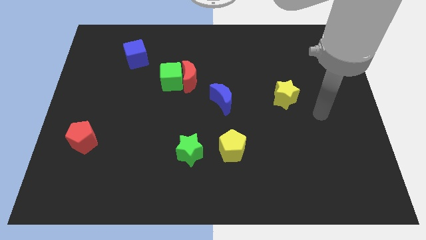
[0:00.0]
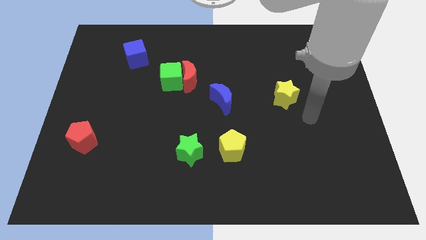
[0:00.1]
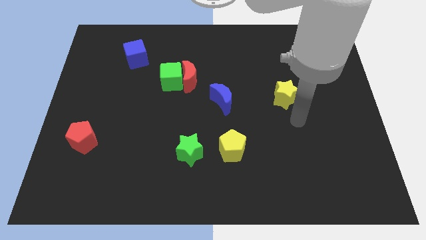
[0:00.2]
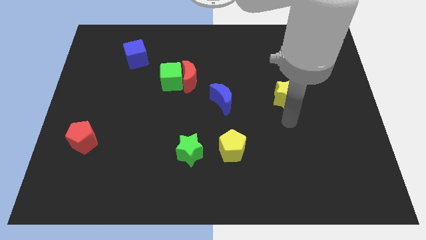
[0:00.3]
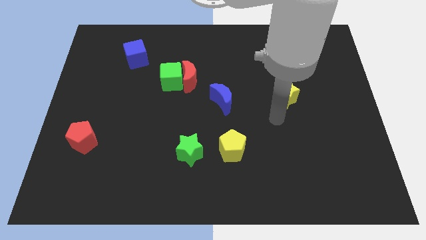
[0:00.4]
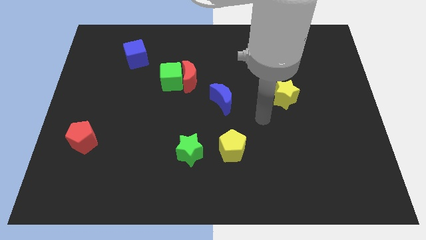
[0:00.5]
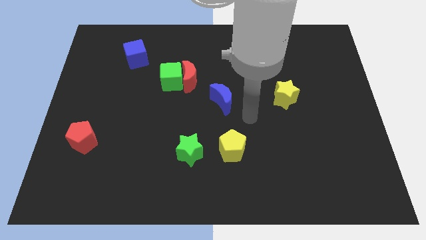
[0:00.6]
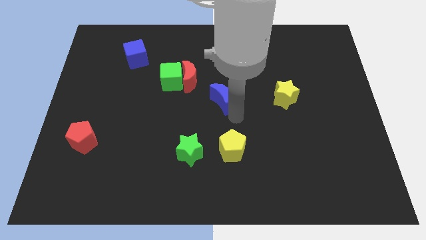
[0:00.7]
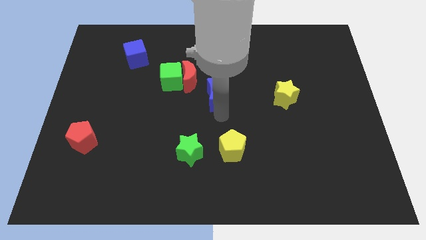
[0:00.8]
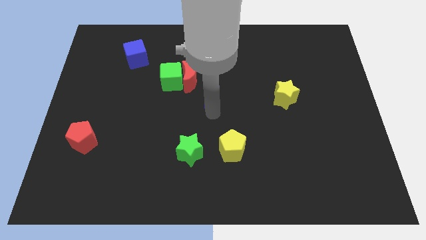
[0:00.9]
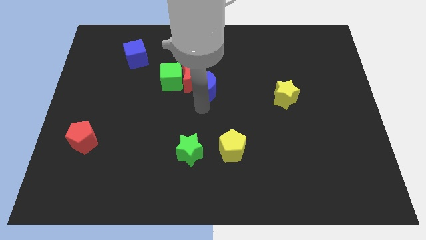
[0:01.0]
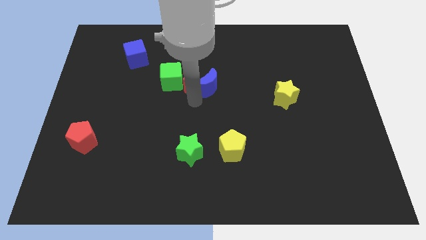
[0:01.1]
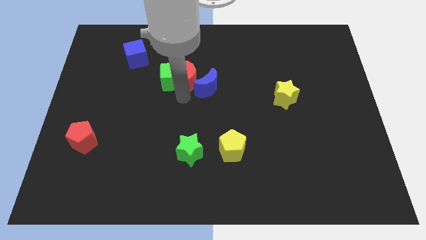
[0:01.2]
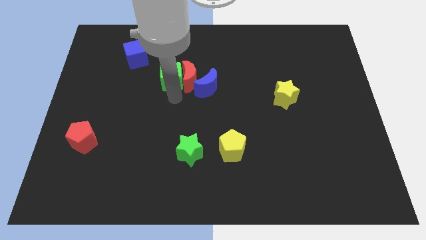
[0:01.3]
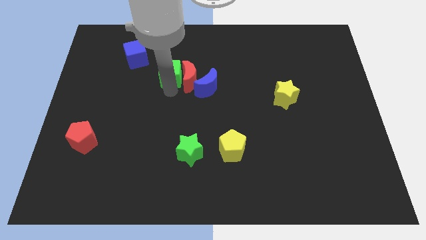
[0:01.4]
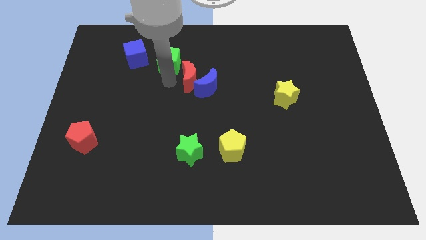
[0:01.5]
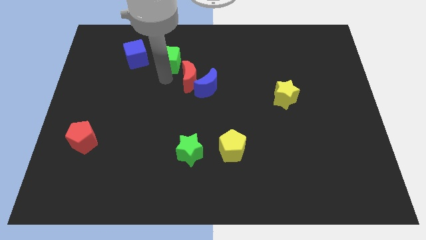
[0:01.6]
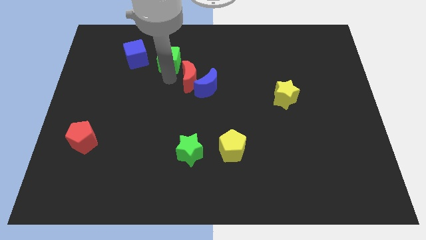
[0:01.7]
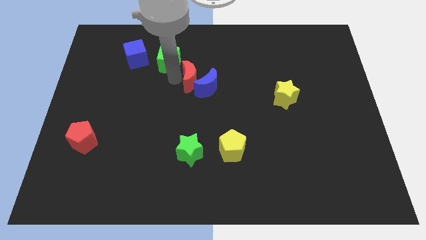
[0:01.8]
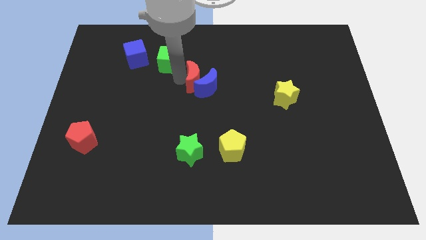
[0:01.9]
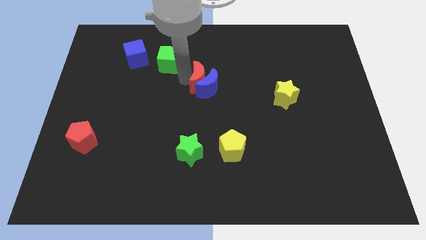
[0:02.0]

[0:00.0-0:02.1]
move the red moon away from the green cube

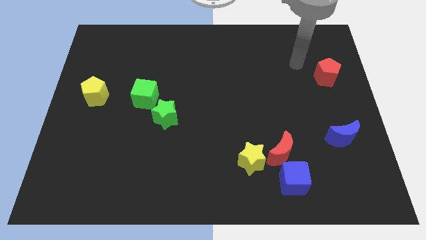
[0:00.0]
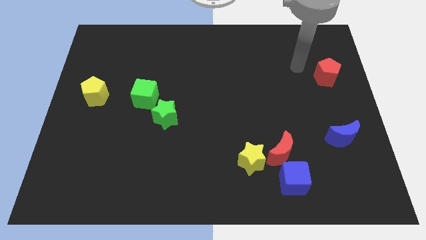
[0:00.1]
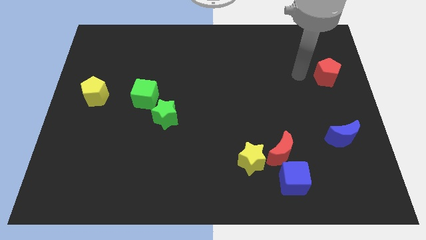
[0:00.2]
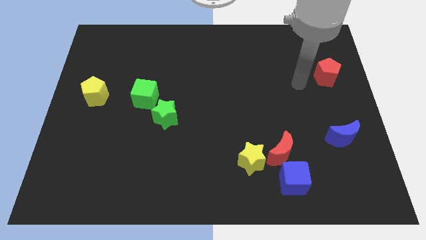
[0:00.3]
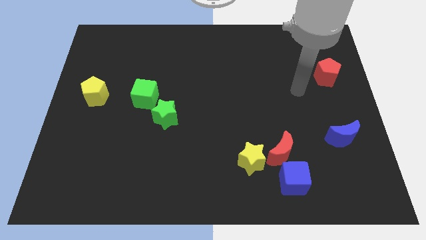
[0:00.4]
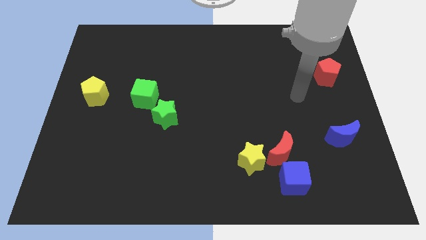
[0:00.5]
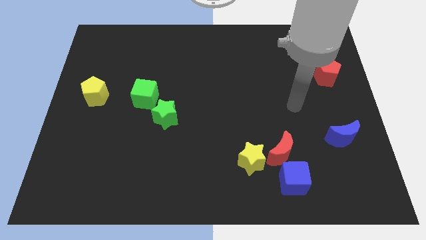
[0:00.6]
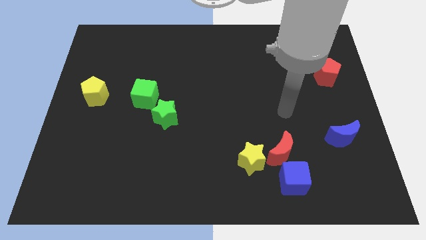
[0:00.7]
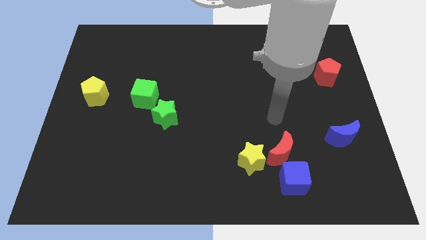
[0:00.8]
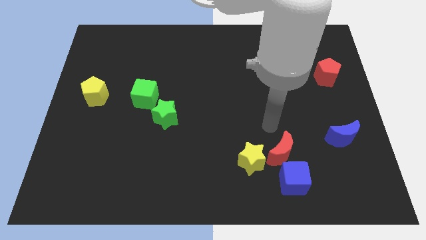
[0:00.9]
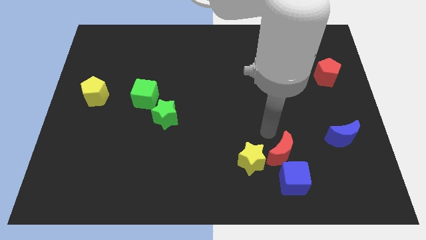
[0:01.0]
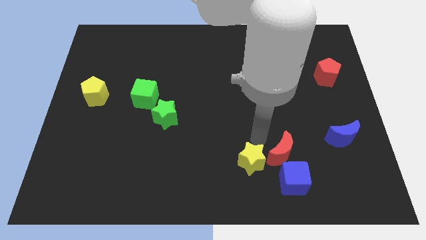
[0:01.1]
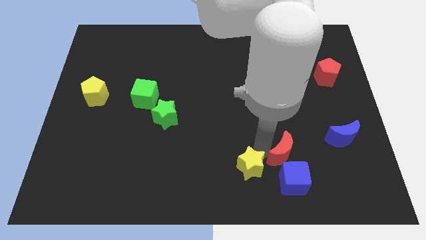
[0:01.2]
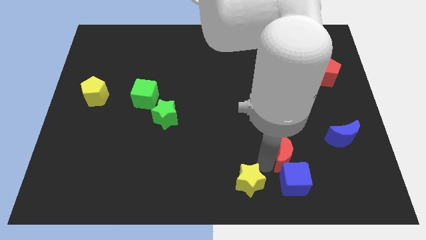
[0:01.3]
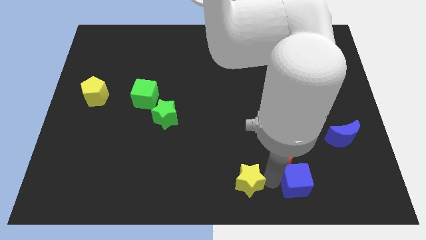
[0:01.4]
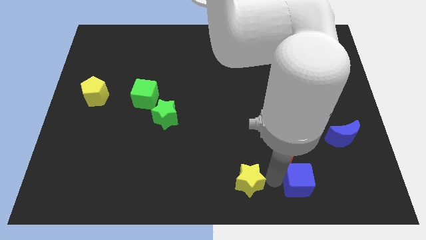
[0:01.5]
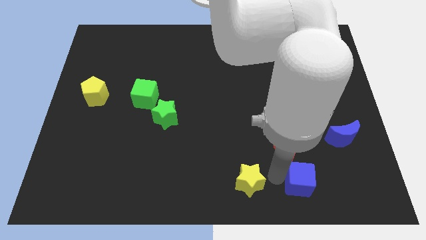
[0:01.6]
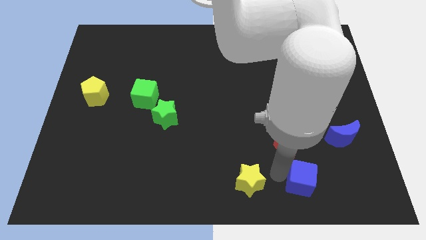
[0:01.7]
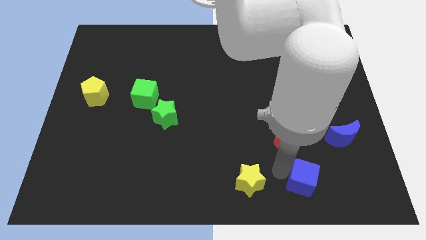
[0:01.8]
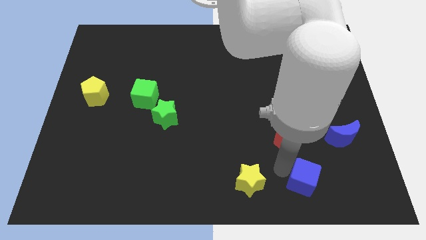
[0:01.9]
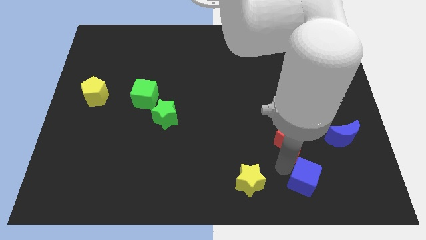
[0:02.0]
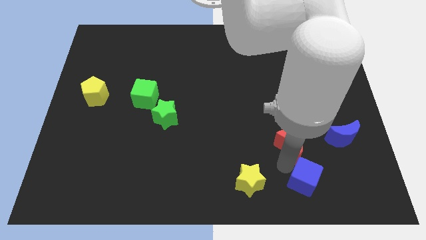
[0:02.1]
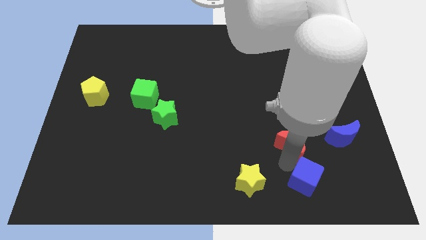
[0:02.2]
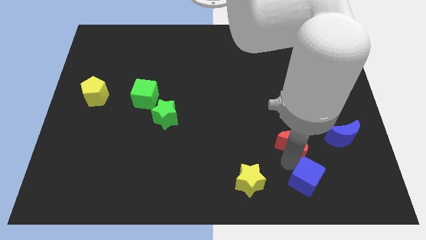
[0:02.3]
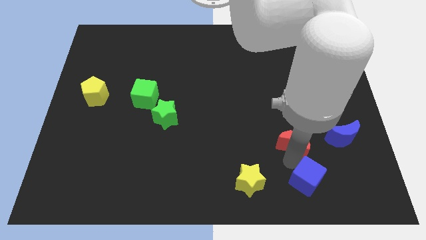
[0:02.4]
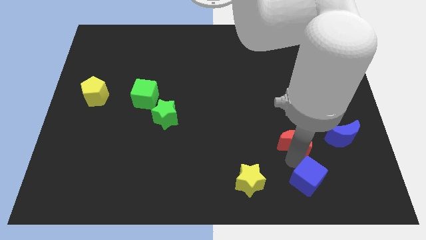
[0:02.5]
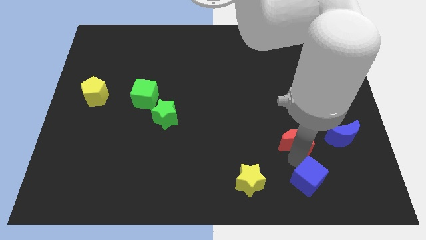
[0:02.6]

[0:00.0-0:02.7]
move the red moon away from the yellow star and blue cube

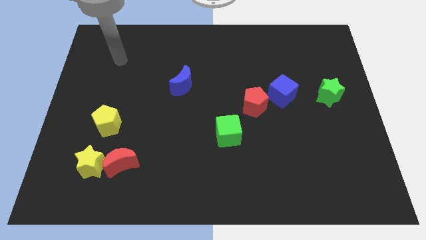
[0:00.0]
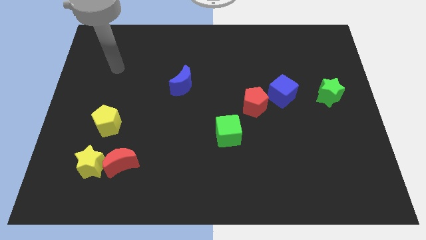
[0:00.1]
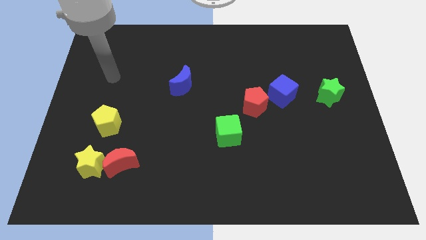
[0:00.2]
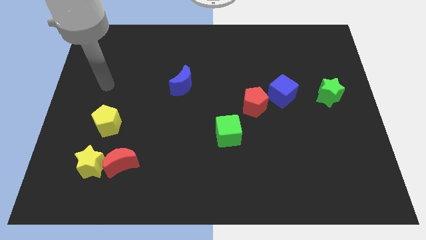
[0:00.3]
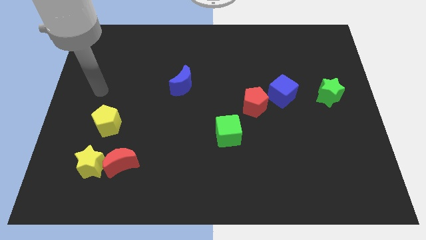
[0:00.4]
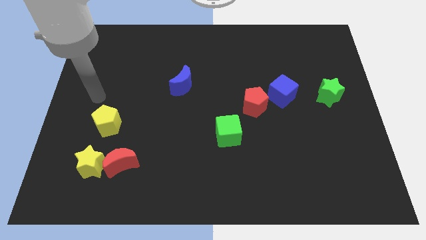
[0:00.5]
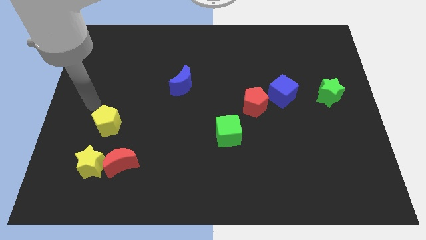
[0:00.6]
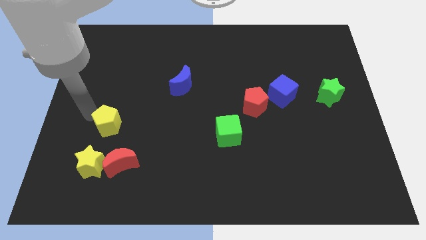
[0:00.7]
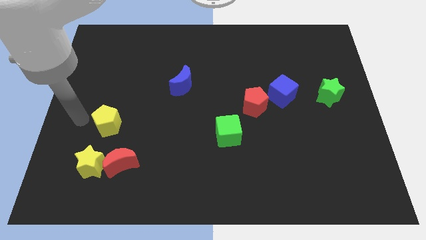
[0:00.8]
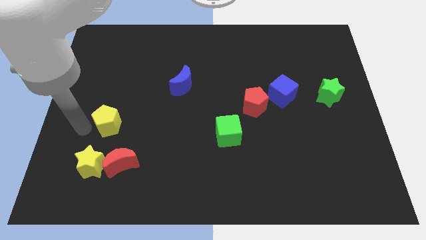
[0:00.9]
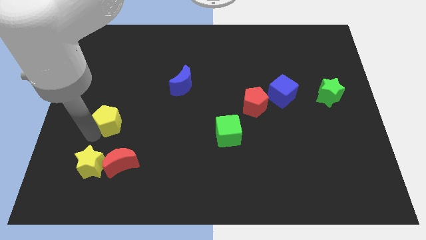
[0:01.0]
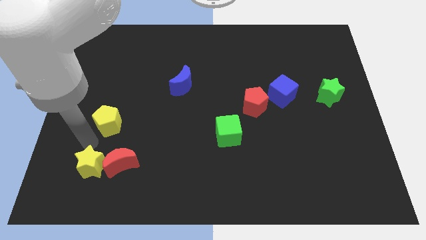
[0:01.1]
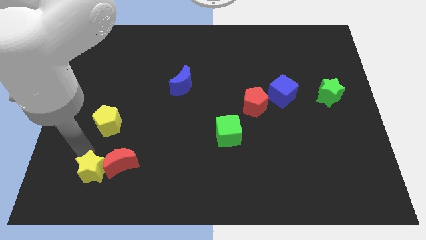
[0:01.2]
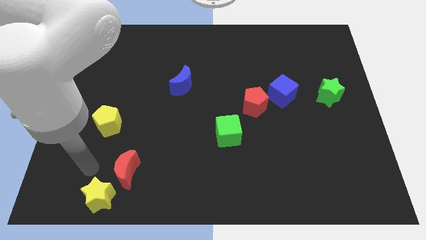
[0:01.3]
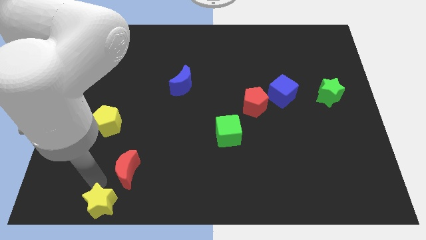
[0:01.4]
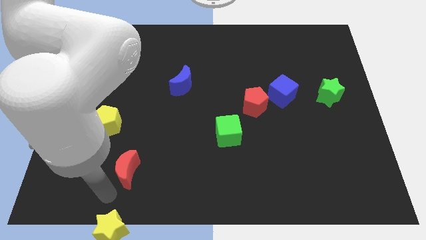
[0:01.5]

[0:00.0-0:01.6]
pull the red moon apart from the yellow star

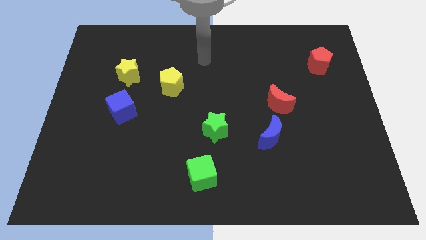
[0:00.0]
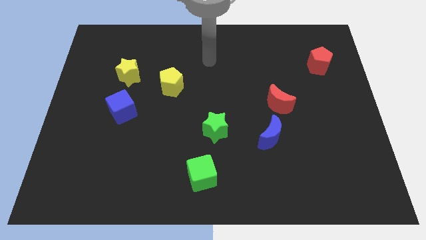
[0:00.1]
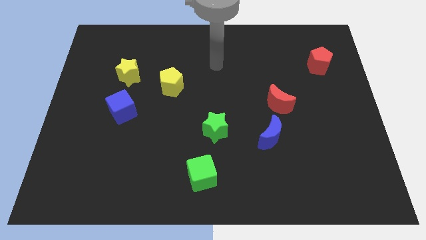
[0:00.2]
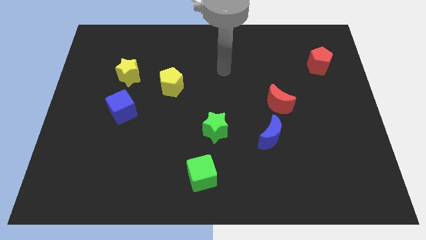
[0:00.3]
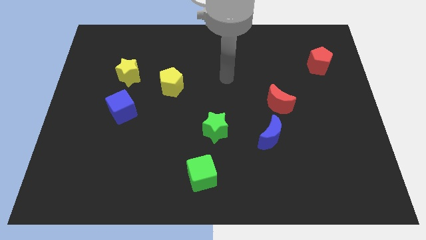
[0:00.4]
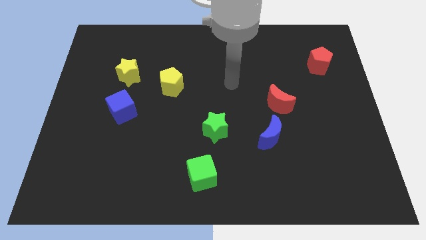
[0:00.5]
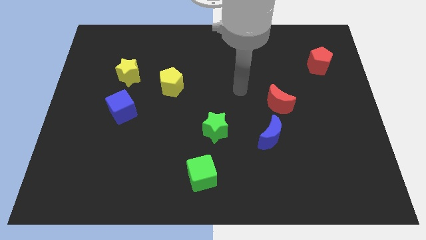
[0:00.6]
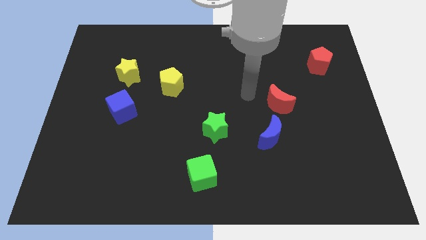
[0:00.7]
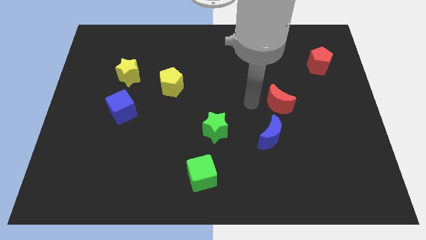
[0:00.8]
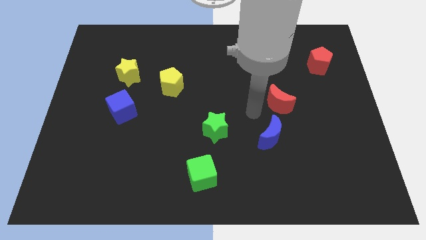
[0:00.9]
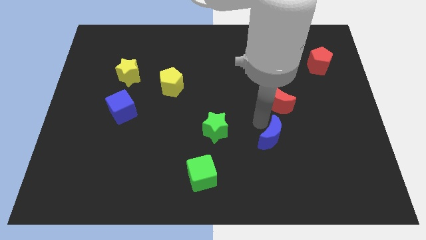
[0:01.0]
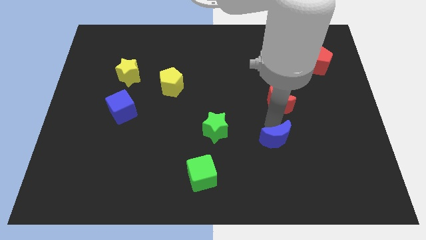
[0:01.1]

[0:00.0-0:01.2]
move the red moon away from the blue moon

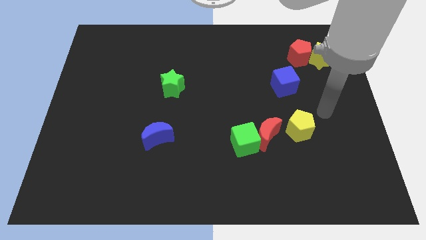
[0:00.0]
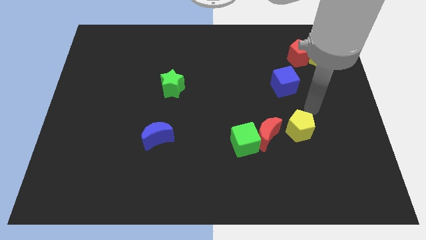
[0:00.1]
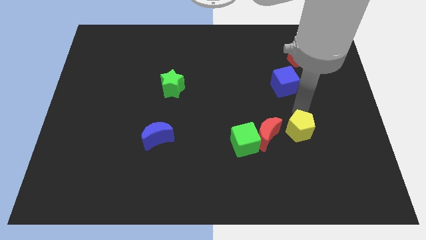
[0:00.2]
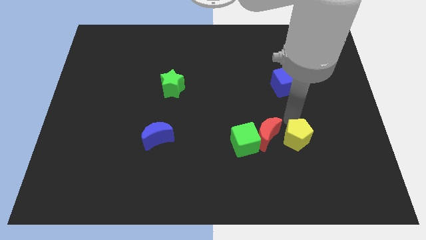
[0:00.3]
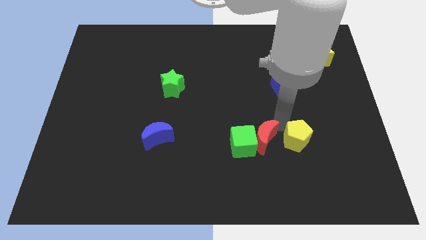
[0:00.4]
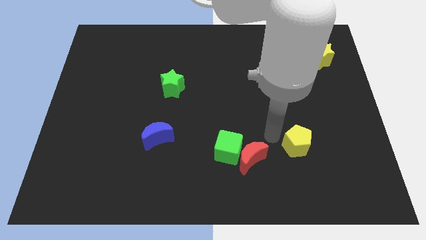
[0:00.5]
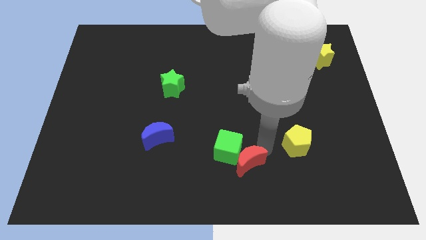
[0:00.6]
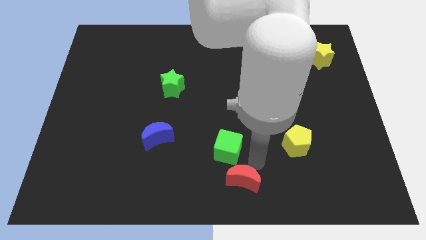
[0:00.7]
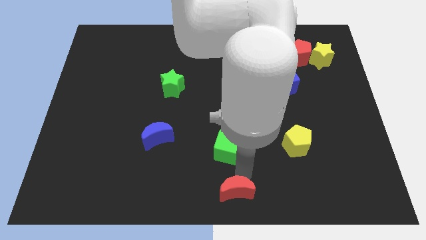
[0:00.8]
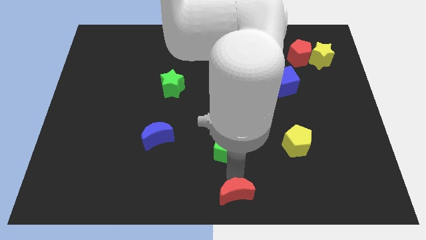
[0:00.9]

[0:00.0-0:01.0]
pull the green cube apart from the red moon

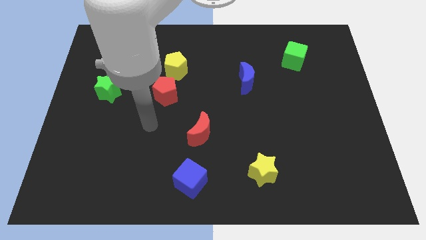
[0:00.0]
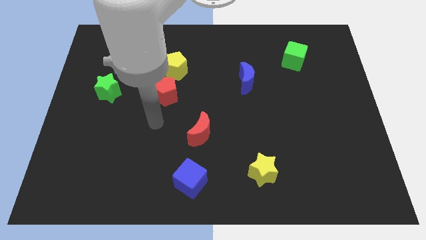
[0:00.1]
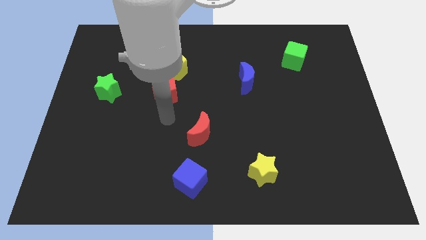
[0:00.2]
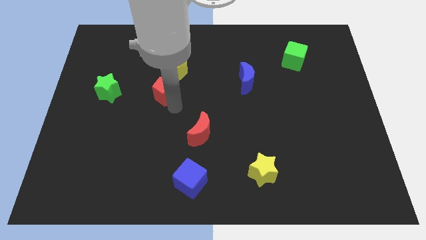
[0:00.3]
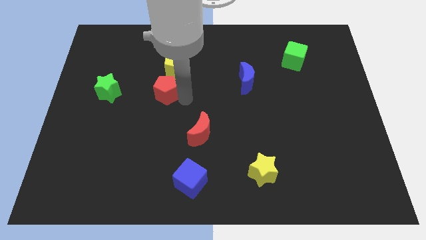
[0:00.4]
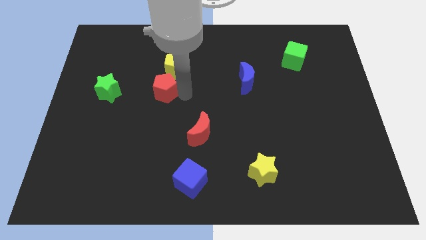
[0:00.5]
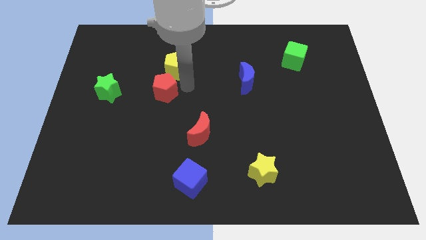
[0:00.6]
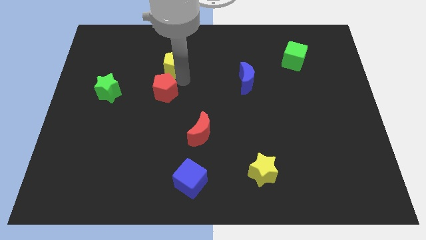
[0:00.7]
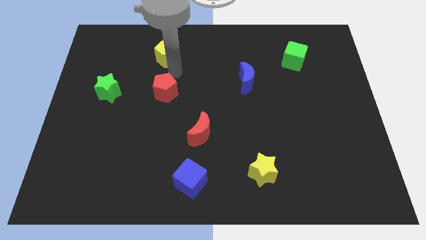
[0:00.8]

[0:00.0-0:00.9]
pull the red pentagon apart from the yellow pentagon
